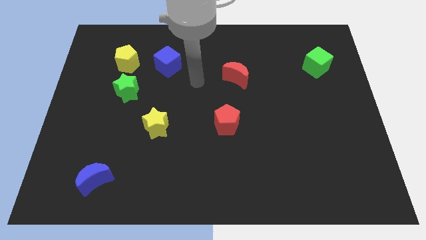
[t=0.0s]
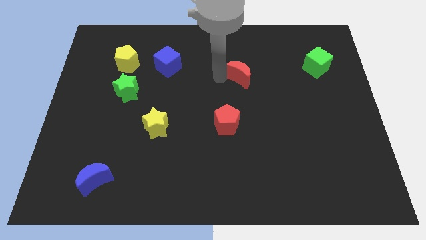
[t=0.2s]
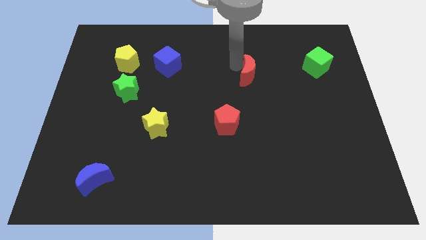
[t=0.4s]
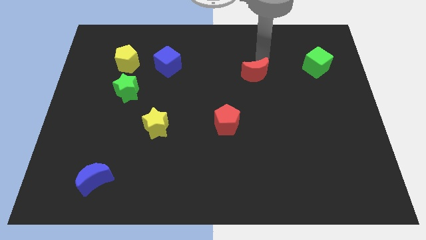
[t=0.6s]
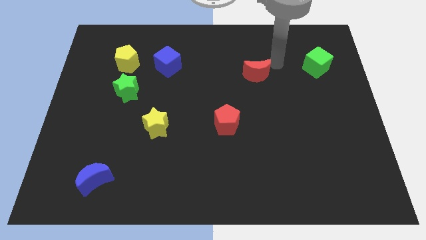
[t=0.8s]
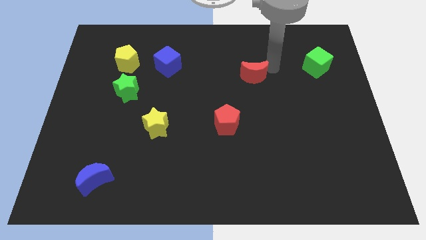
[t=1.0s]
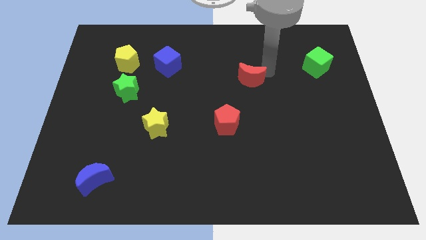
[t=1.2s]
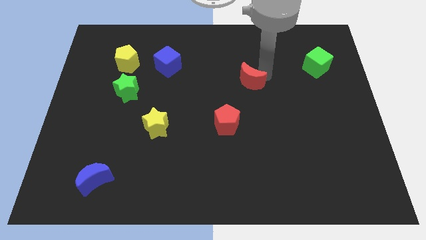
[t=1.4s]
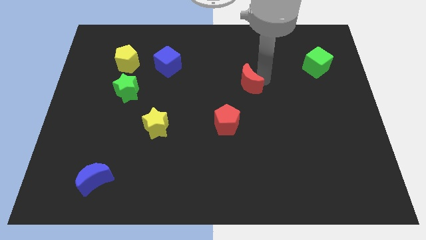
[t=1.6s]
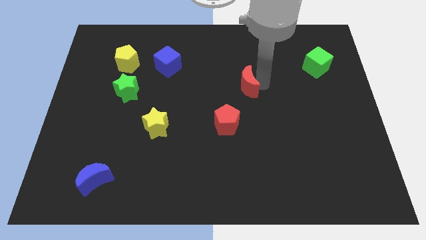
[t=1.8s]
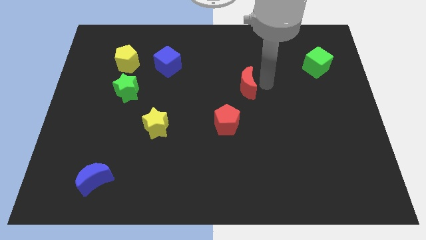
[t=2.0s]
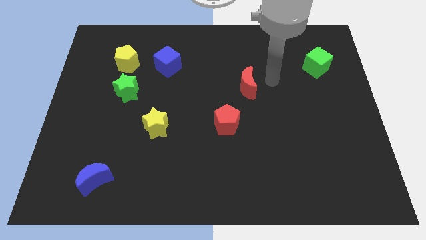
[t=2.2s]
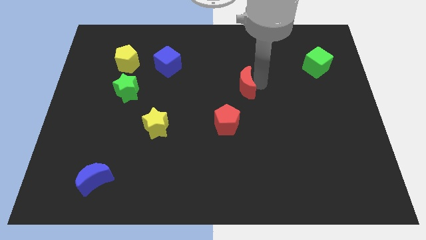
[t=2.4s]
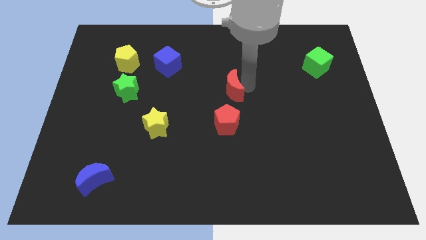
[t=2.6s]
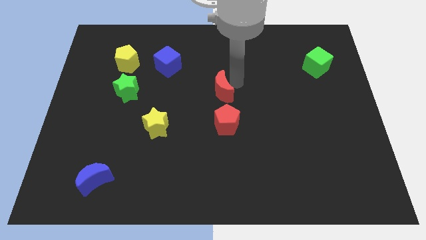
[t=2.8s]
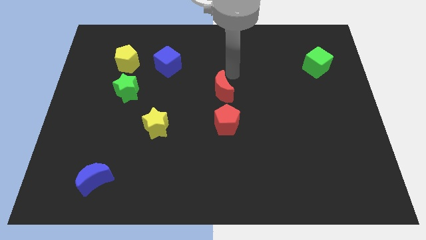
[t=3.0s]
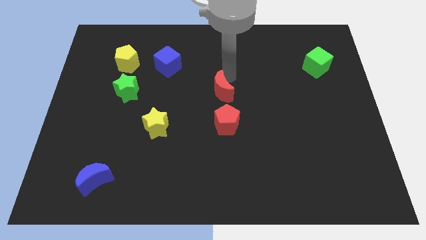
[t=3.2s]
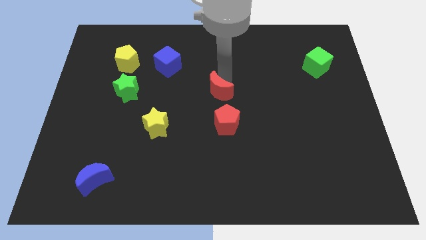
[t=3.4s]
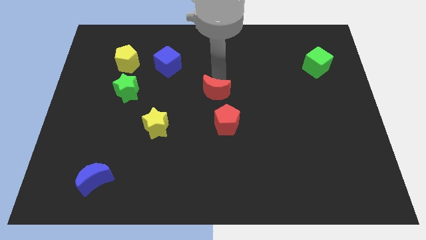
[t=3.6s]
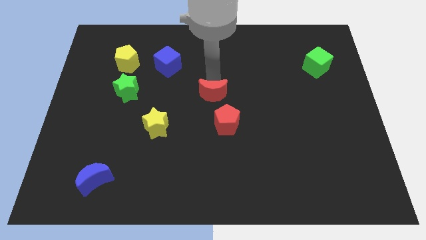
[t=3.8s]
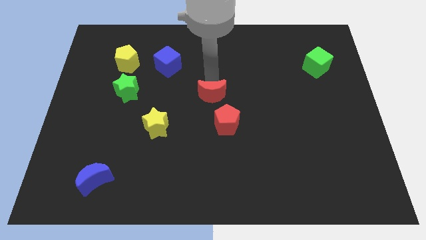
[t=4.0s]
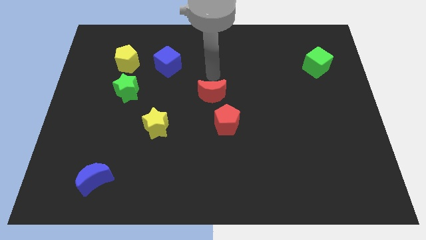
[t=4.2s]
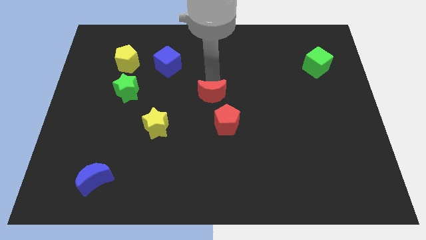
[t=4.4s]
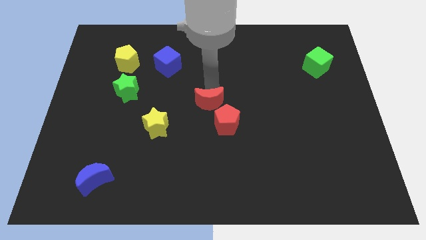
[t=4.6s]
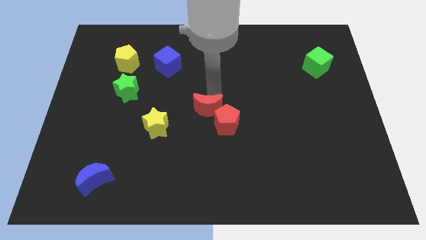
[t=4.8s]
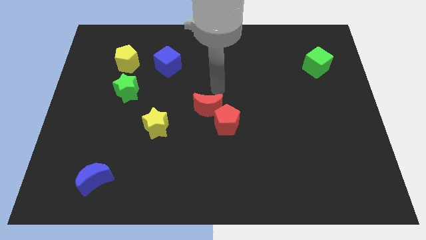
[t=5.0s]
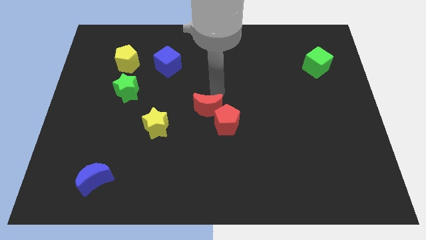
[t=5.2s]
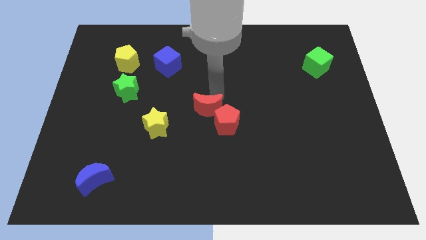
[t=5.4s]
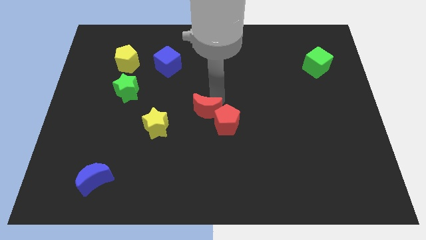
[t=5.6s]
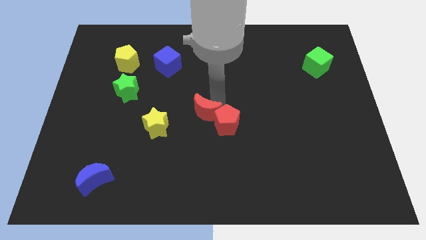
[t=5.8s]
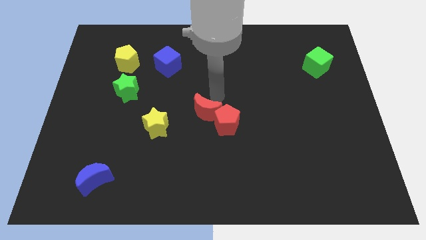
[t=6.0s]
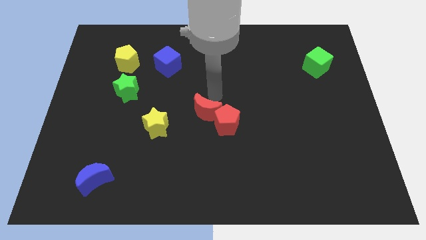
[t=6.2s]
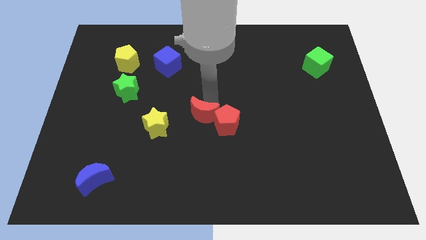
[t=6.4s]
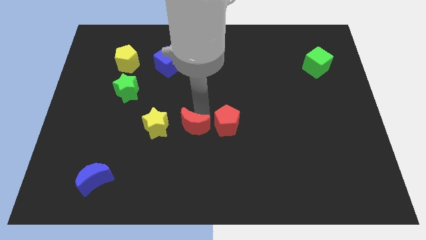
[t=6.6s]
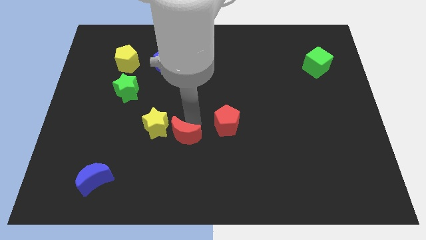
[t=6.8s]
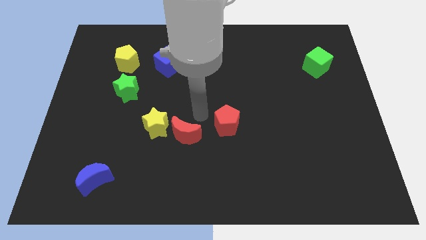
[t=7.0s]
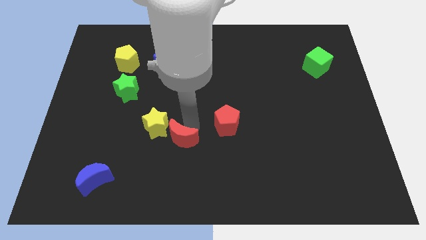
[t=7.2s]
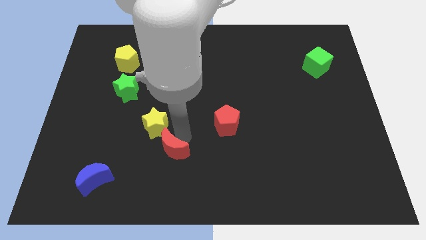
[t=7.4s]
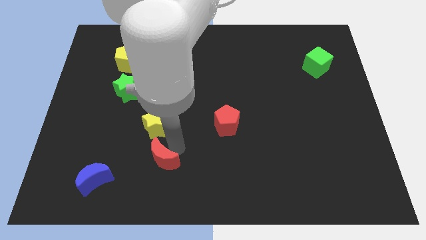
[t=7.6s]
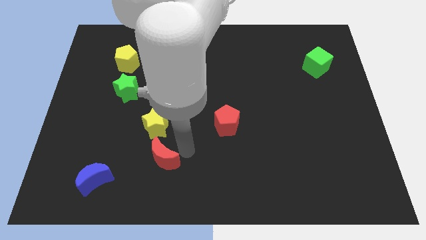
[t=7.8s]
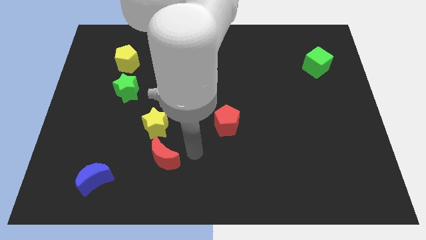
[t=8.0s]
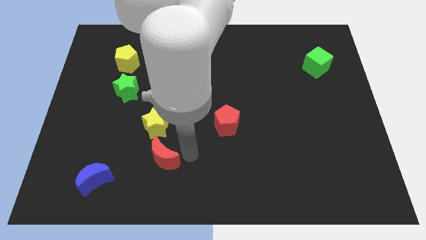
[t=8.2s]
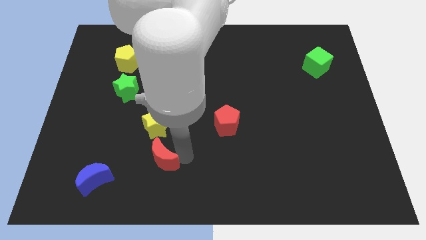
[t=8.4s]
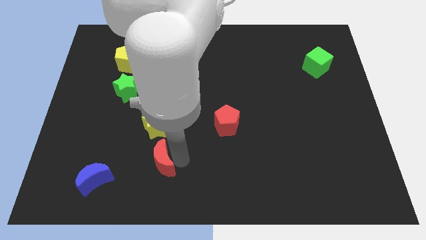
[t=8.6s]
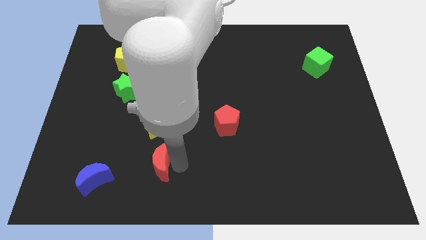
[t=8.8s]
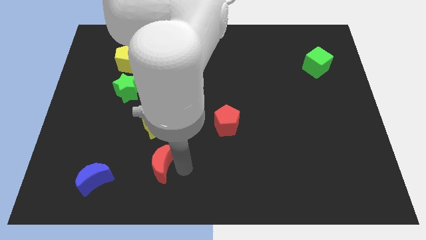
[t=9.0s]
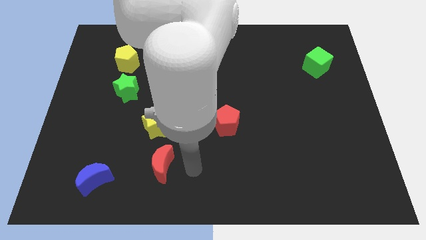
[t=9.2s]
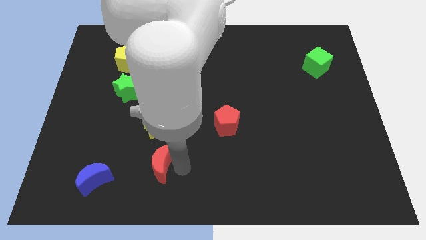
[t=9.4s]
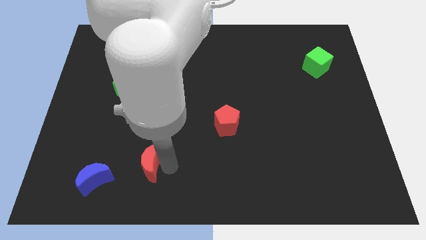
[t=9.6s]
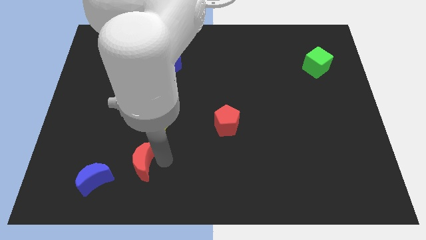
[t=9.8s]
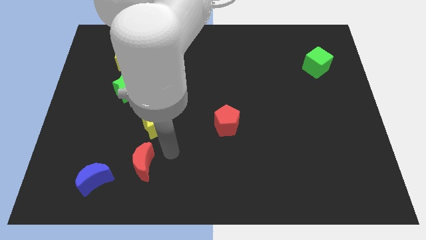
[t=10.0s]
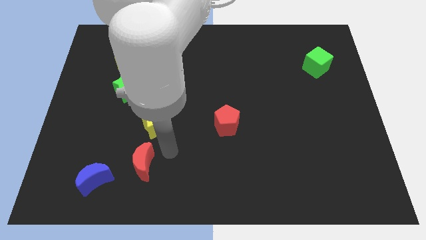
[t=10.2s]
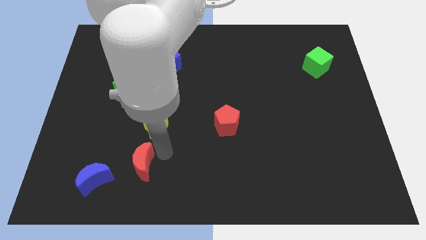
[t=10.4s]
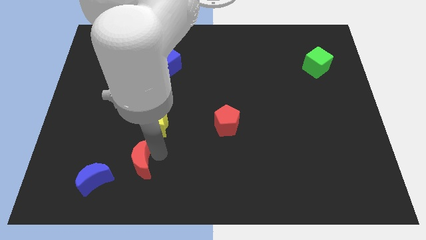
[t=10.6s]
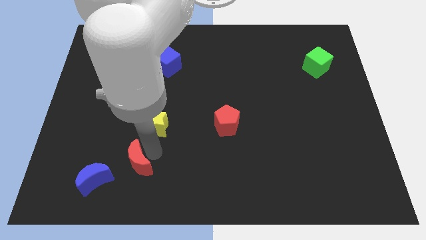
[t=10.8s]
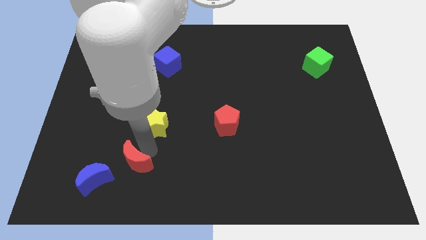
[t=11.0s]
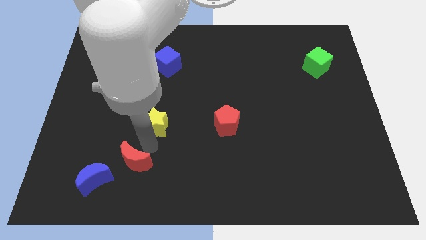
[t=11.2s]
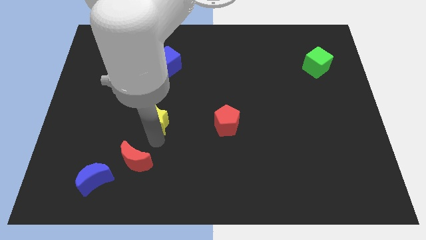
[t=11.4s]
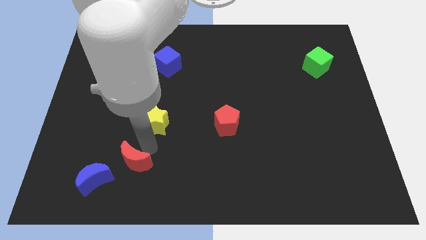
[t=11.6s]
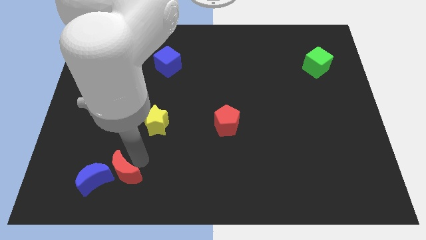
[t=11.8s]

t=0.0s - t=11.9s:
push the red moon next to the blue moon

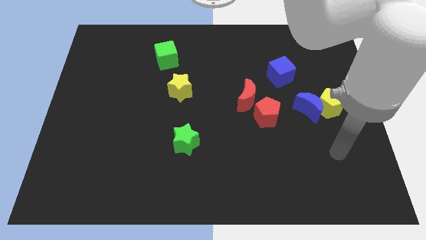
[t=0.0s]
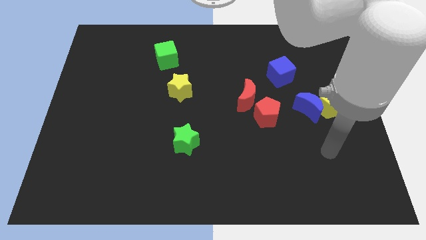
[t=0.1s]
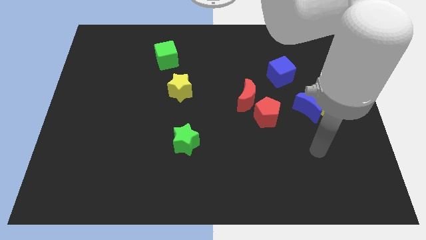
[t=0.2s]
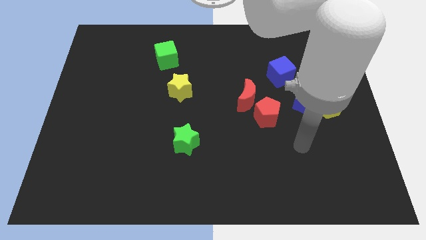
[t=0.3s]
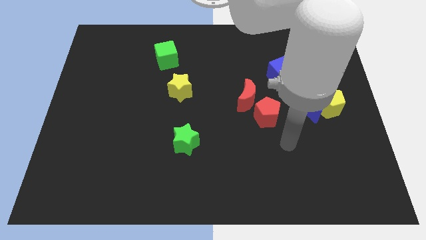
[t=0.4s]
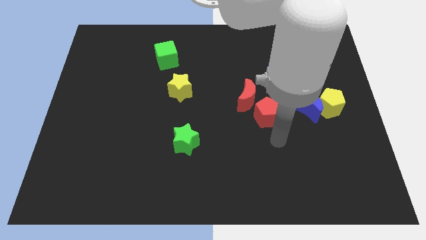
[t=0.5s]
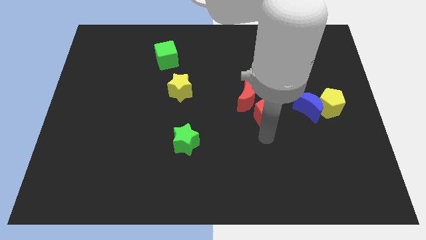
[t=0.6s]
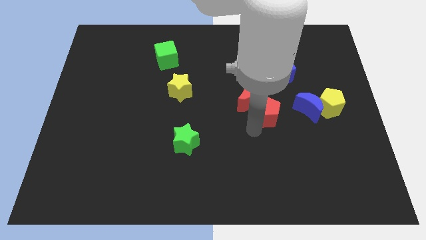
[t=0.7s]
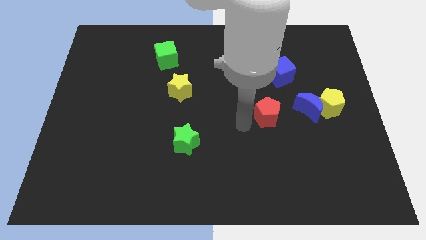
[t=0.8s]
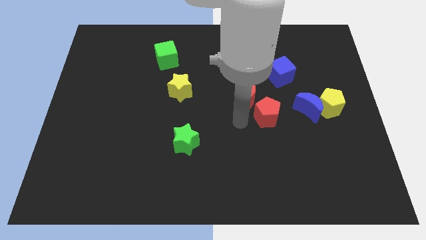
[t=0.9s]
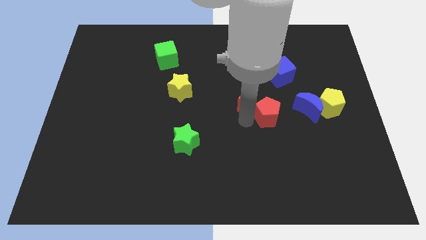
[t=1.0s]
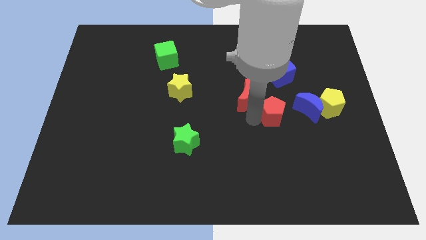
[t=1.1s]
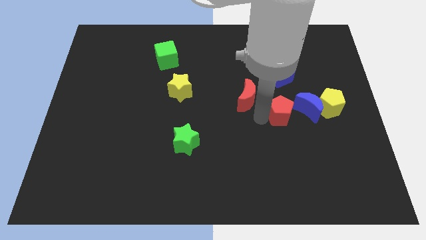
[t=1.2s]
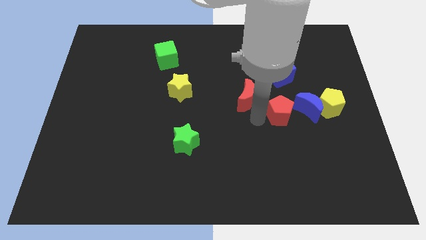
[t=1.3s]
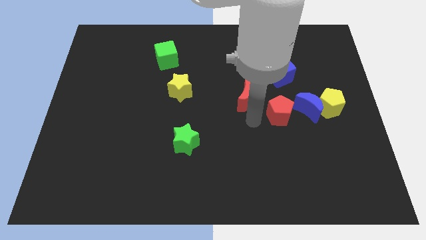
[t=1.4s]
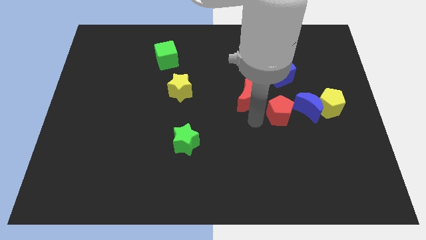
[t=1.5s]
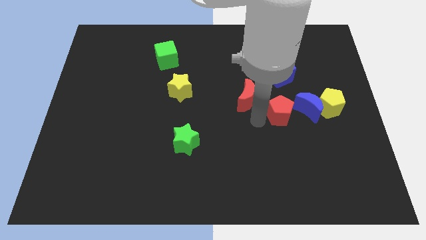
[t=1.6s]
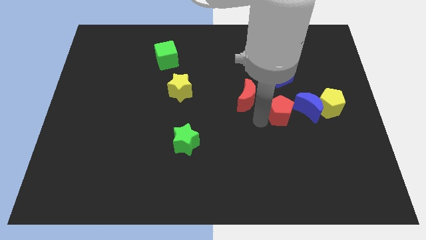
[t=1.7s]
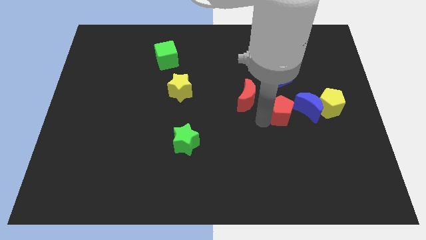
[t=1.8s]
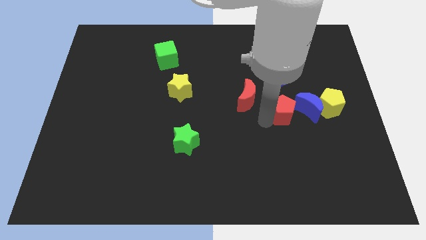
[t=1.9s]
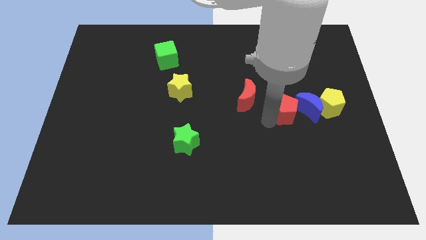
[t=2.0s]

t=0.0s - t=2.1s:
slide the red pentagon to the blue moon

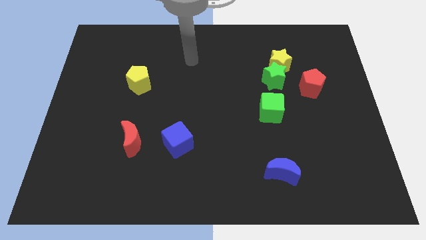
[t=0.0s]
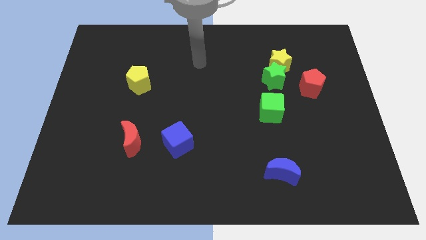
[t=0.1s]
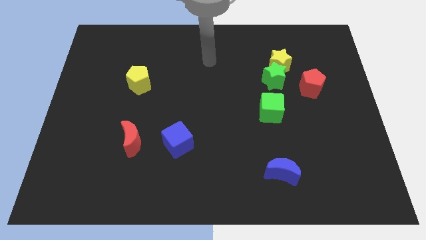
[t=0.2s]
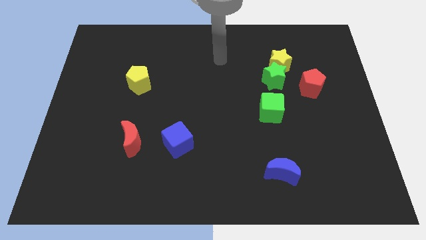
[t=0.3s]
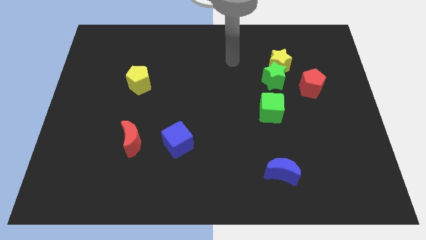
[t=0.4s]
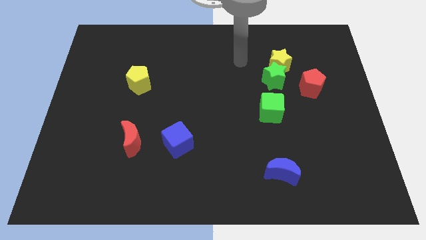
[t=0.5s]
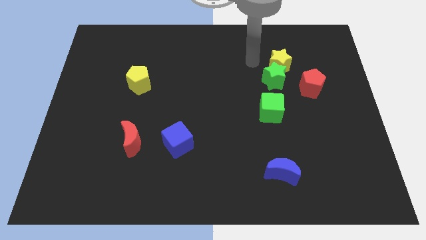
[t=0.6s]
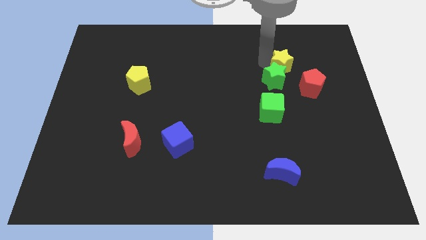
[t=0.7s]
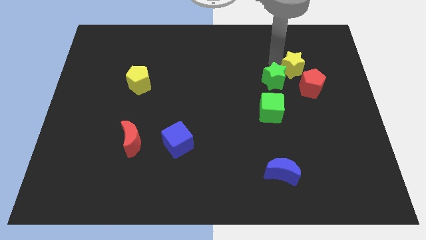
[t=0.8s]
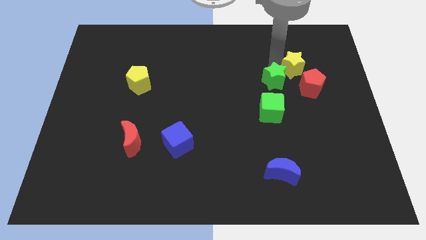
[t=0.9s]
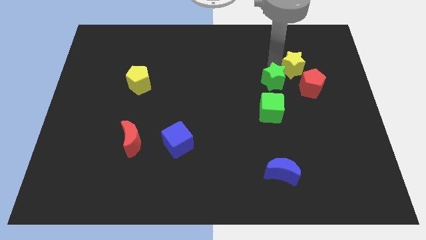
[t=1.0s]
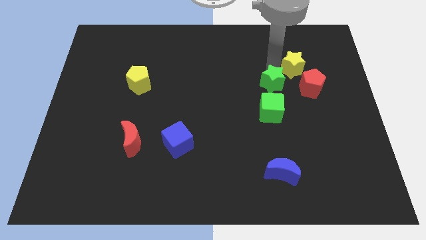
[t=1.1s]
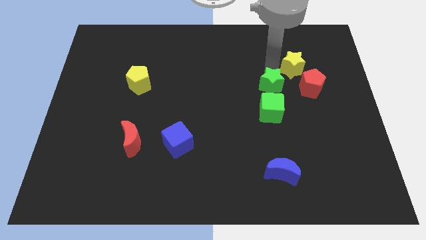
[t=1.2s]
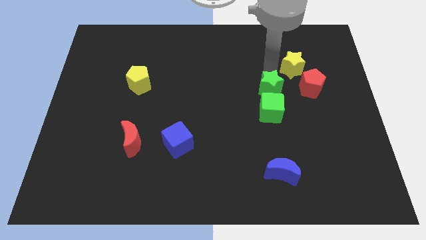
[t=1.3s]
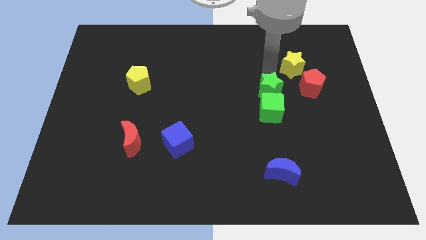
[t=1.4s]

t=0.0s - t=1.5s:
move the green star close to the green cube
